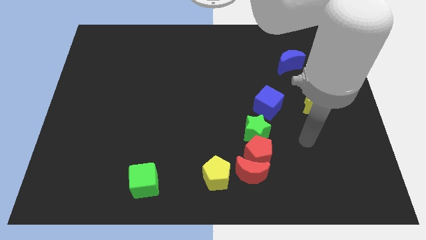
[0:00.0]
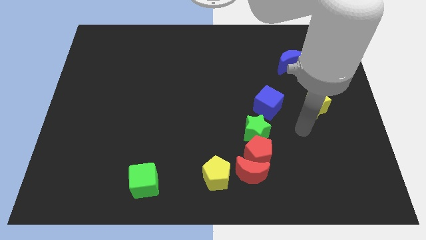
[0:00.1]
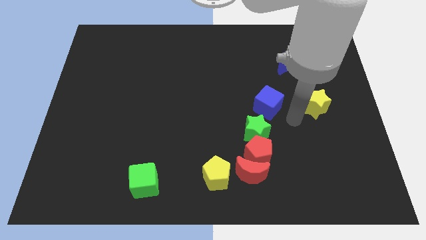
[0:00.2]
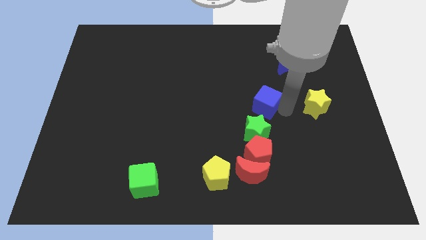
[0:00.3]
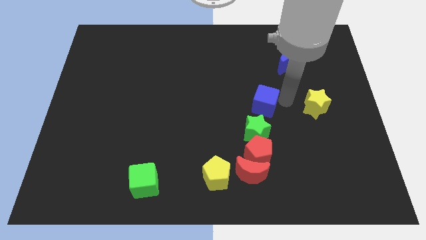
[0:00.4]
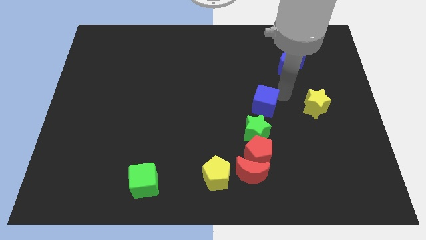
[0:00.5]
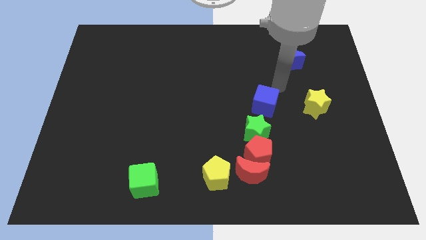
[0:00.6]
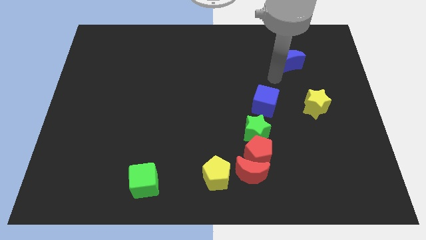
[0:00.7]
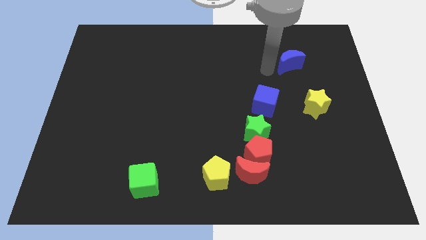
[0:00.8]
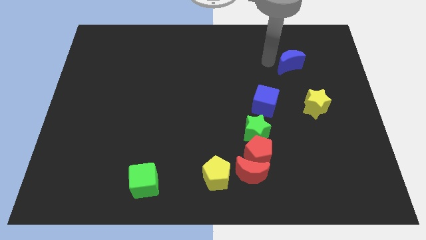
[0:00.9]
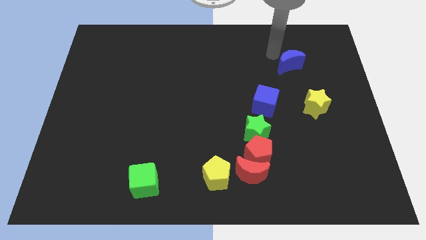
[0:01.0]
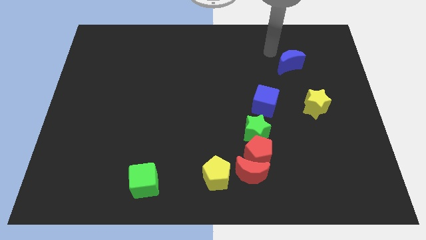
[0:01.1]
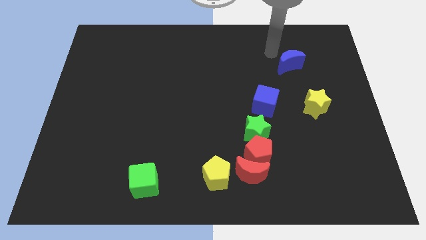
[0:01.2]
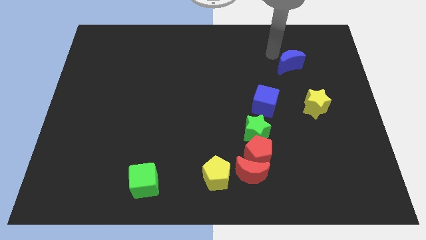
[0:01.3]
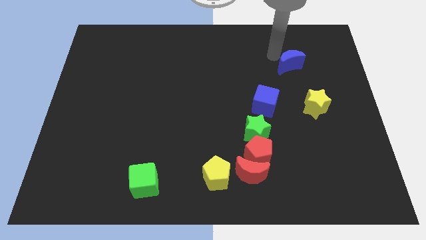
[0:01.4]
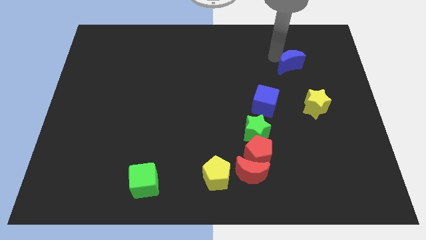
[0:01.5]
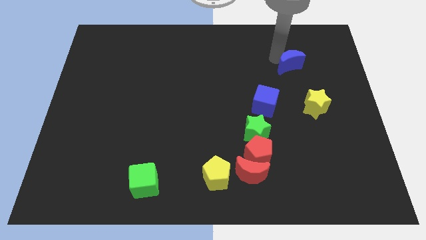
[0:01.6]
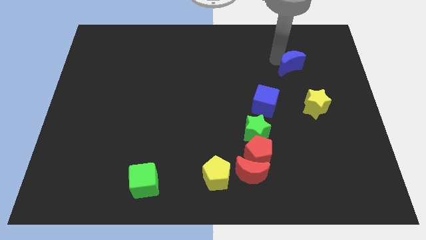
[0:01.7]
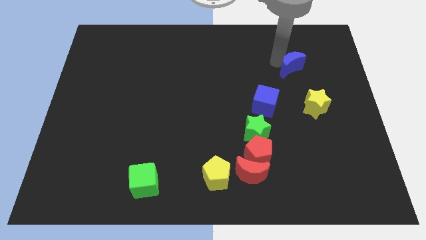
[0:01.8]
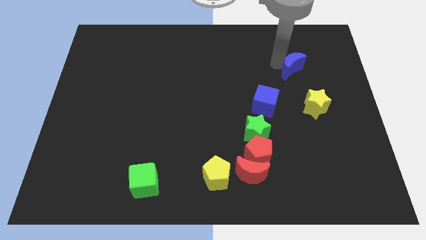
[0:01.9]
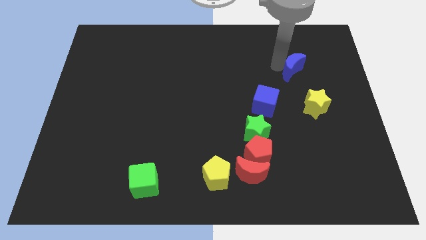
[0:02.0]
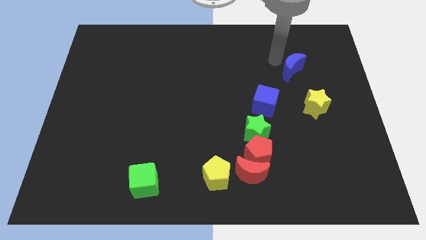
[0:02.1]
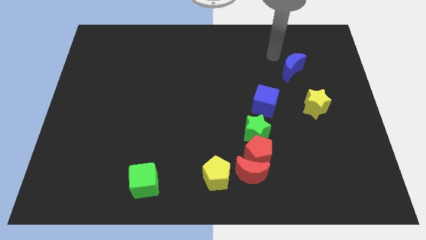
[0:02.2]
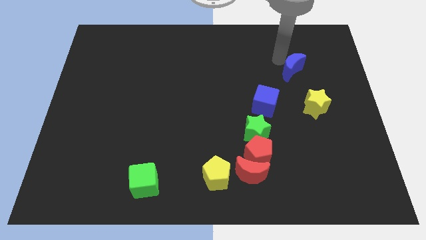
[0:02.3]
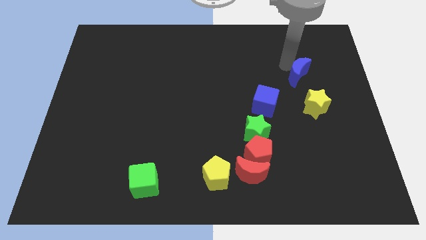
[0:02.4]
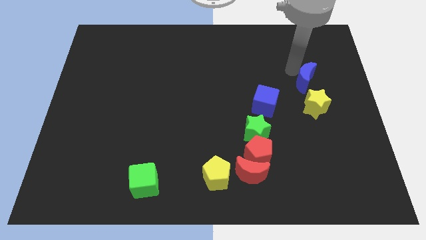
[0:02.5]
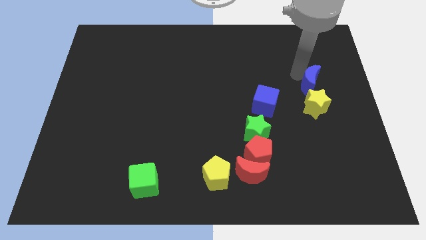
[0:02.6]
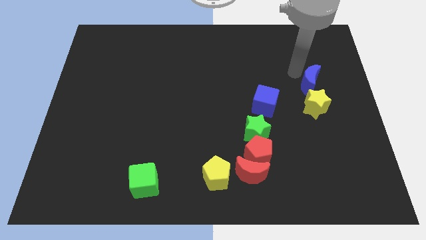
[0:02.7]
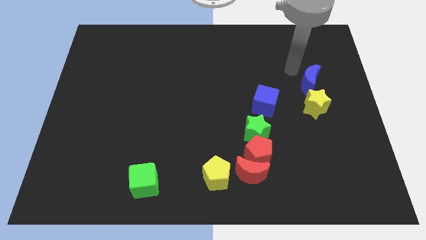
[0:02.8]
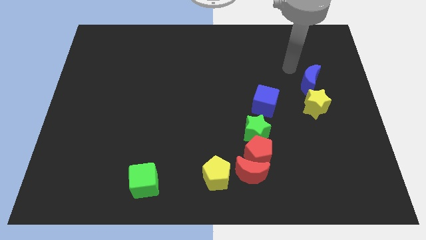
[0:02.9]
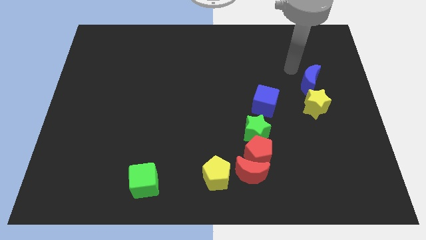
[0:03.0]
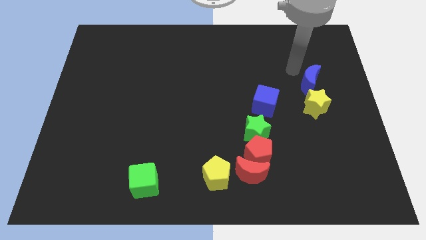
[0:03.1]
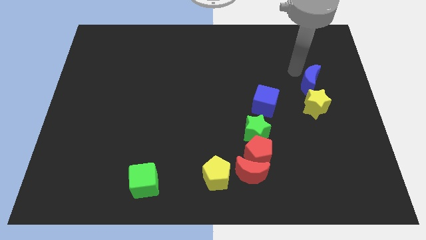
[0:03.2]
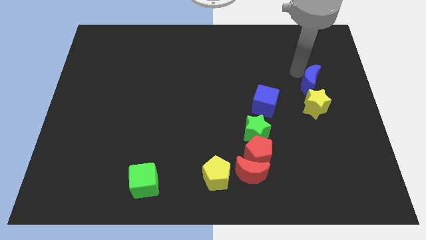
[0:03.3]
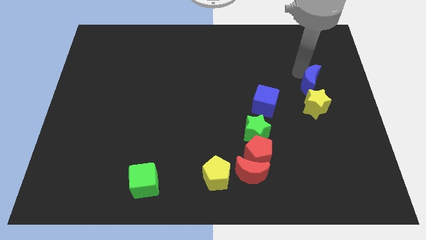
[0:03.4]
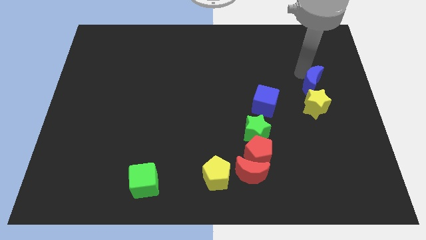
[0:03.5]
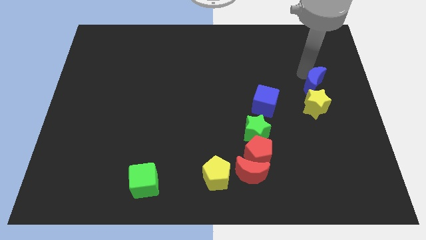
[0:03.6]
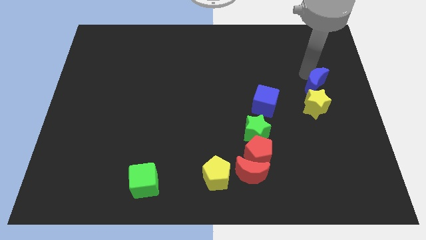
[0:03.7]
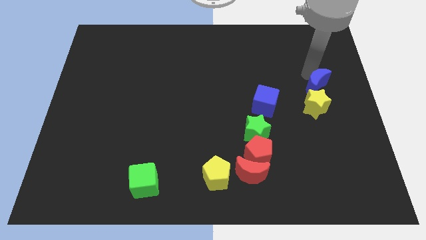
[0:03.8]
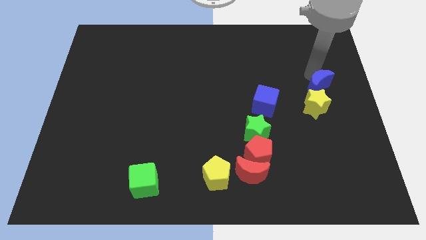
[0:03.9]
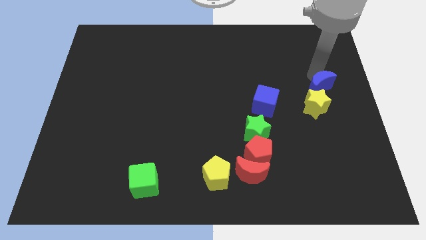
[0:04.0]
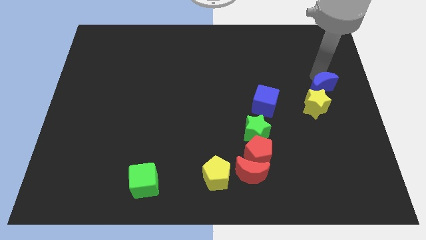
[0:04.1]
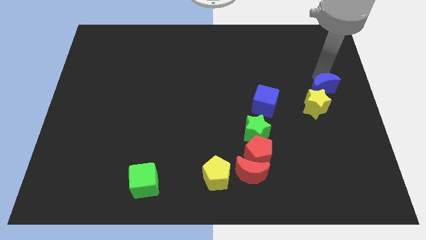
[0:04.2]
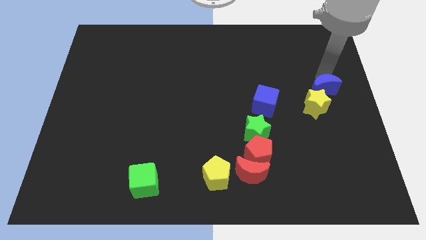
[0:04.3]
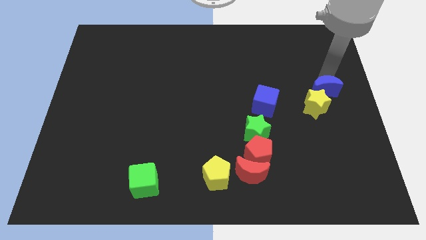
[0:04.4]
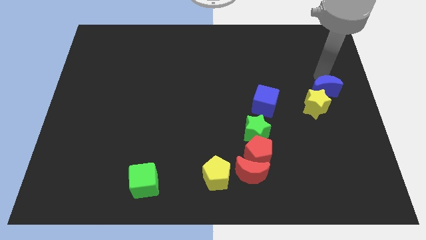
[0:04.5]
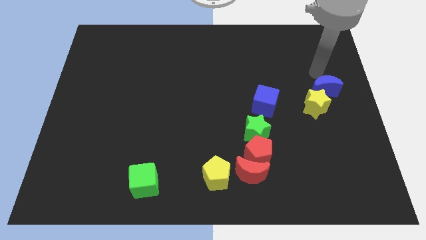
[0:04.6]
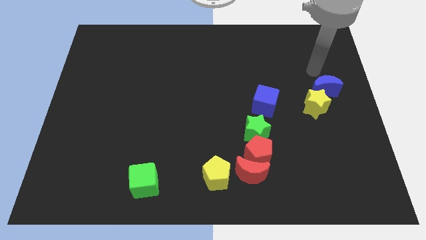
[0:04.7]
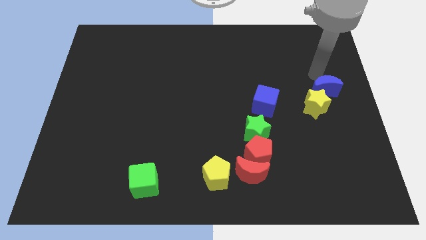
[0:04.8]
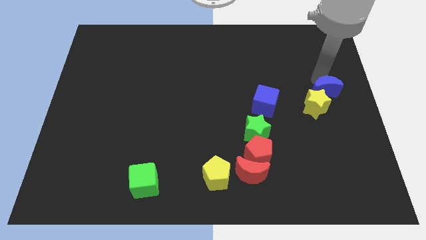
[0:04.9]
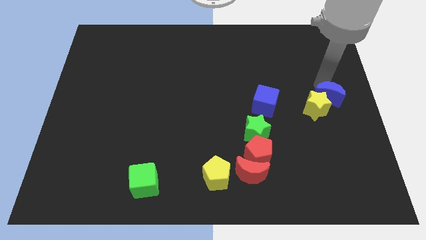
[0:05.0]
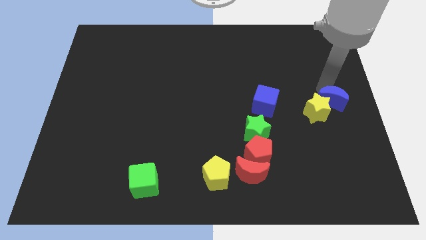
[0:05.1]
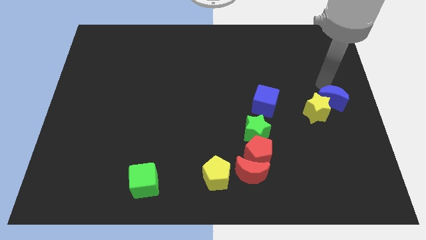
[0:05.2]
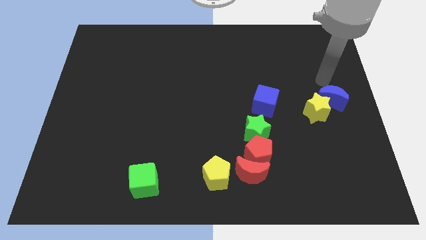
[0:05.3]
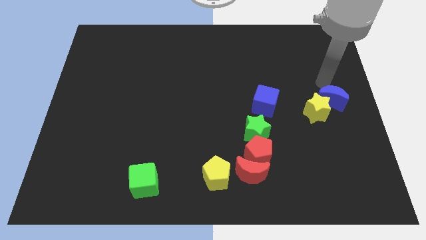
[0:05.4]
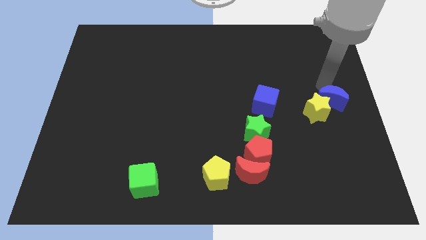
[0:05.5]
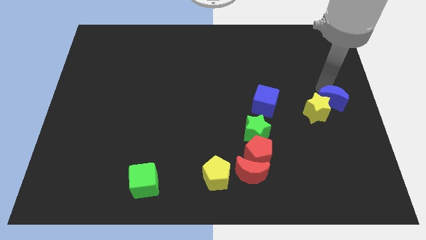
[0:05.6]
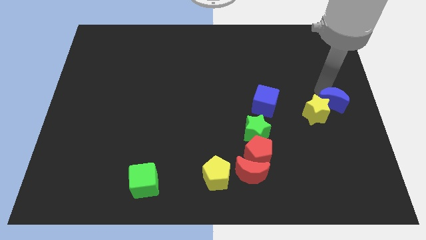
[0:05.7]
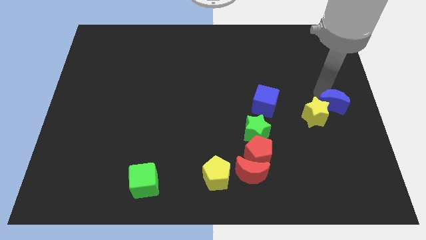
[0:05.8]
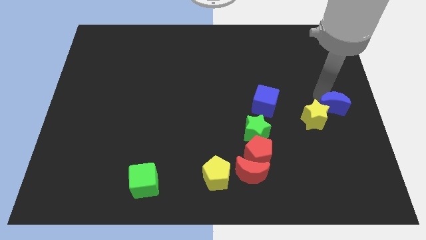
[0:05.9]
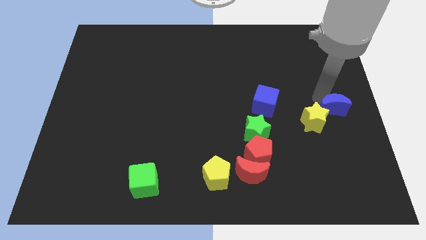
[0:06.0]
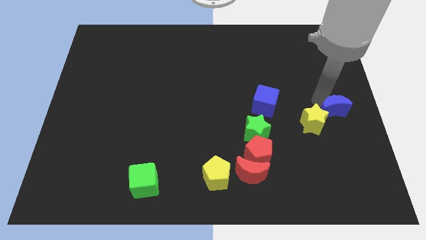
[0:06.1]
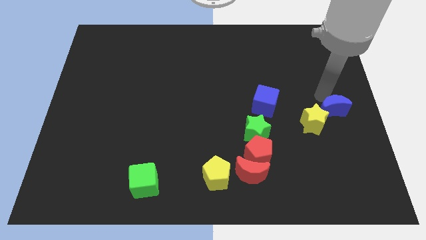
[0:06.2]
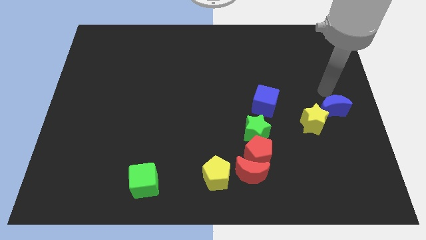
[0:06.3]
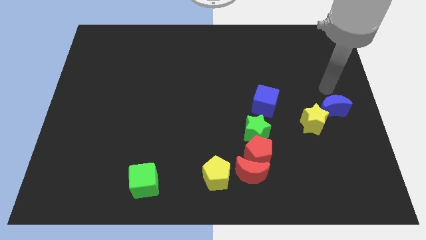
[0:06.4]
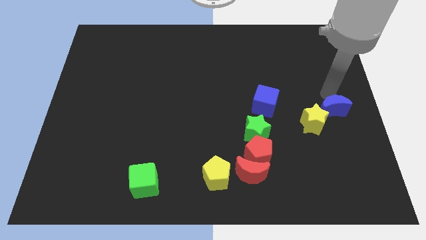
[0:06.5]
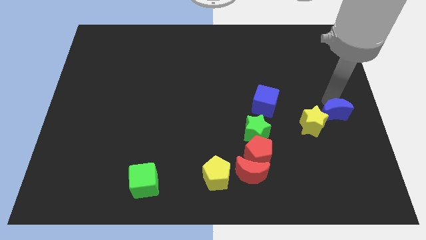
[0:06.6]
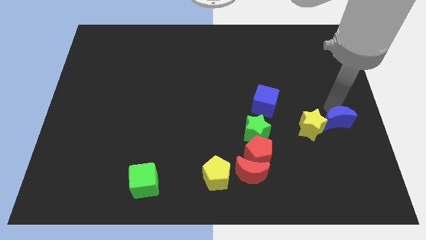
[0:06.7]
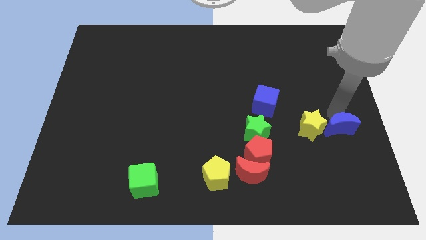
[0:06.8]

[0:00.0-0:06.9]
move the blue moon to the bottom right of the yellow star

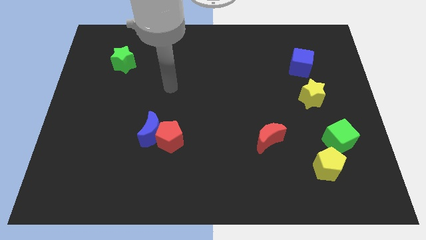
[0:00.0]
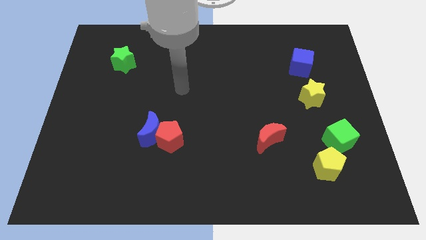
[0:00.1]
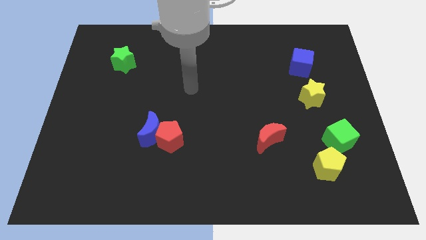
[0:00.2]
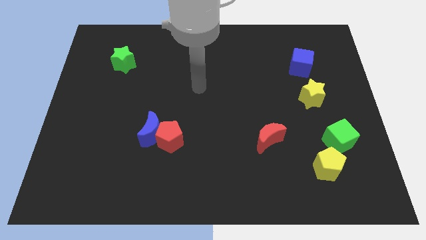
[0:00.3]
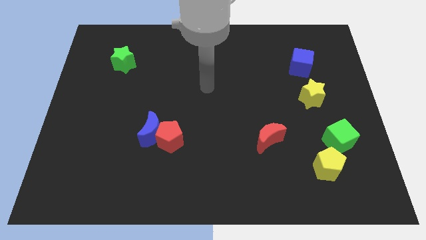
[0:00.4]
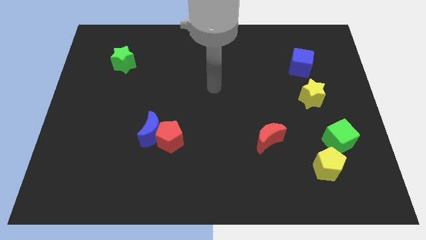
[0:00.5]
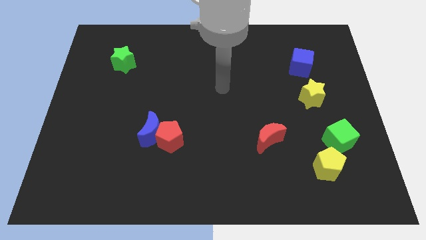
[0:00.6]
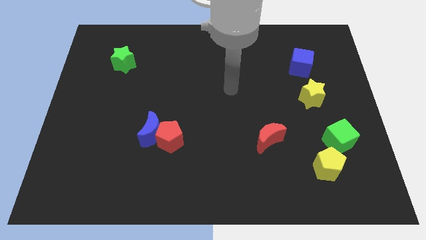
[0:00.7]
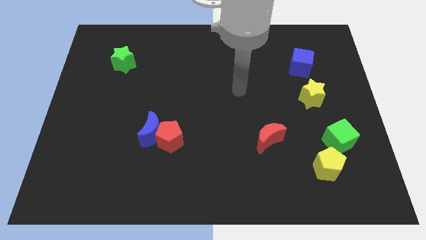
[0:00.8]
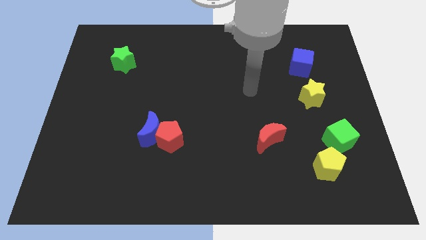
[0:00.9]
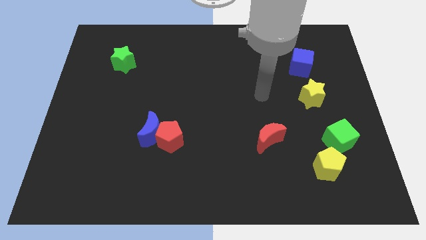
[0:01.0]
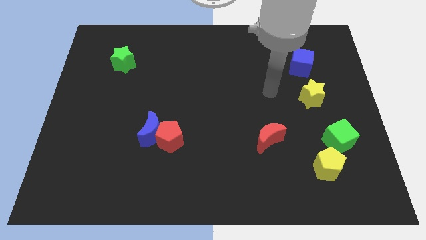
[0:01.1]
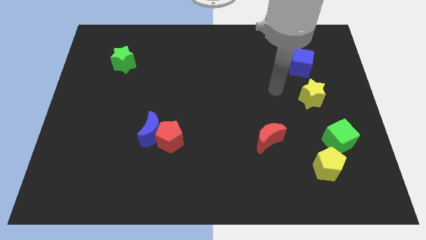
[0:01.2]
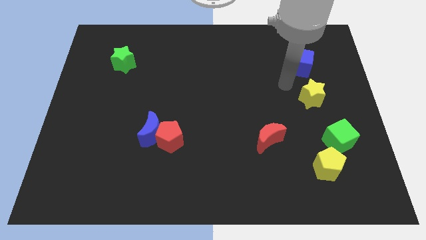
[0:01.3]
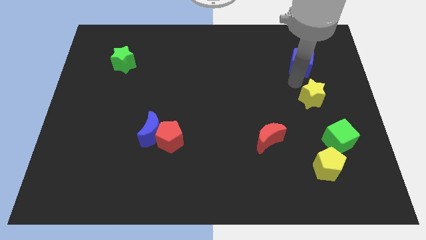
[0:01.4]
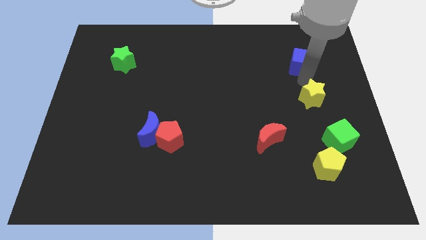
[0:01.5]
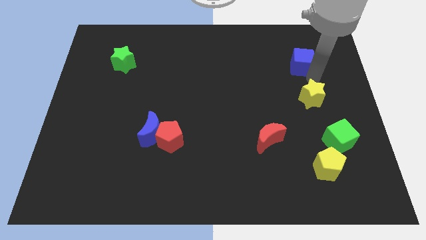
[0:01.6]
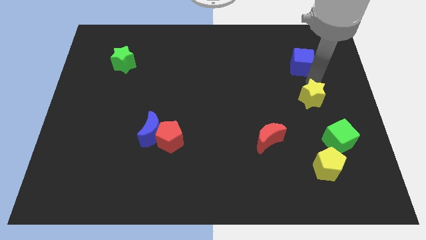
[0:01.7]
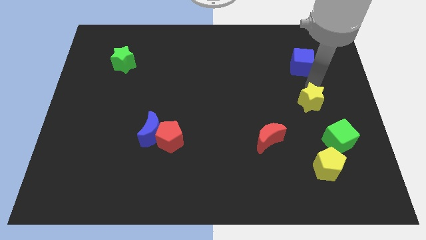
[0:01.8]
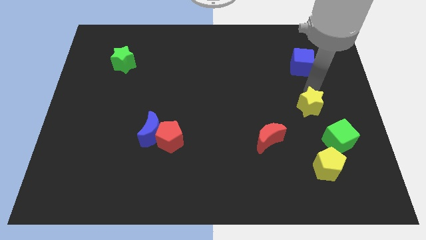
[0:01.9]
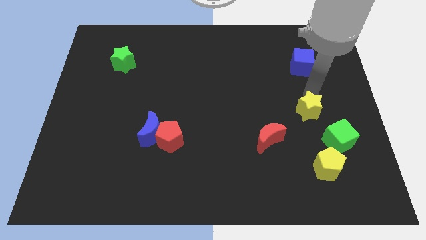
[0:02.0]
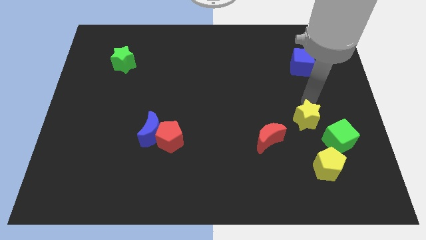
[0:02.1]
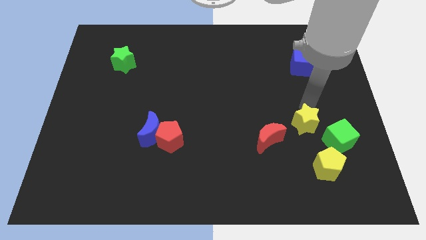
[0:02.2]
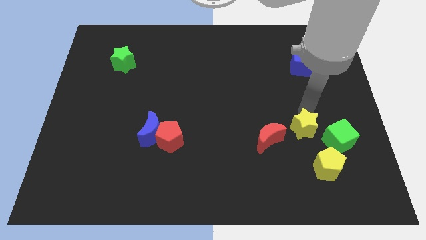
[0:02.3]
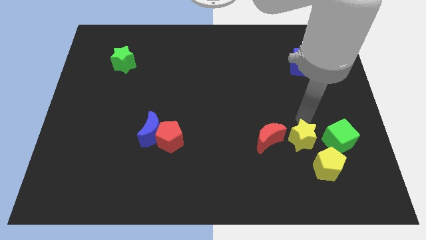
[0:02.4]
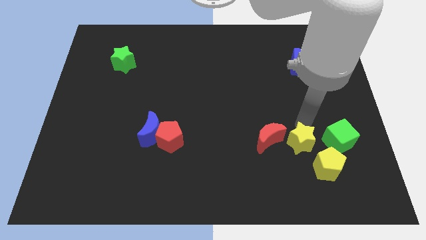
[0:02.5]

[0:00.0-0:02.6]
move the yellow star diagonally down and to the right of the red moon
